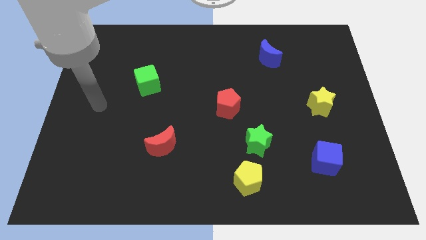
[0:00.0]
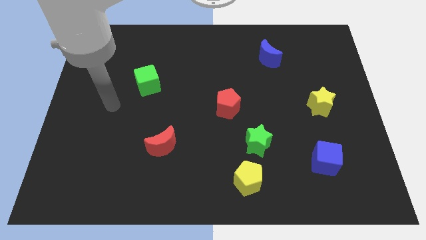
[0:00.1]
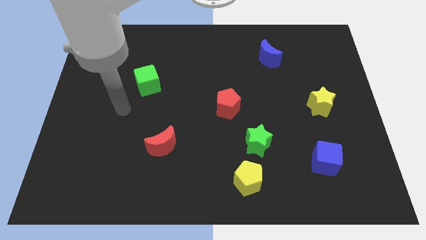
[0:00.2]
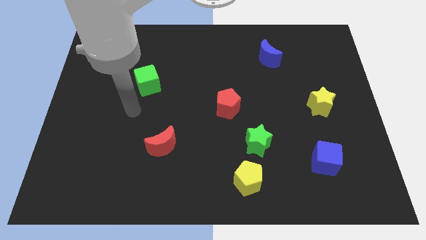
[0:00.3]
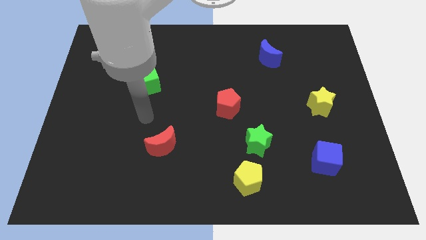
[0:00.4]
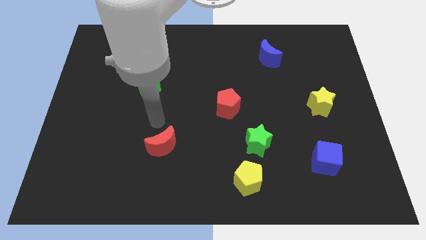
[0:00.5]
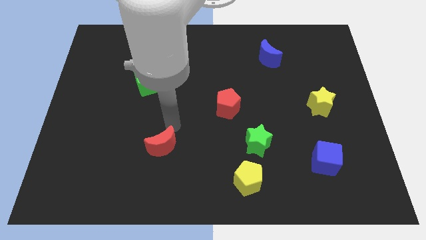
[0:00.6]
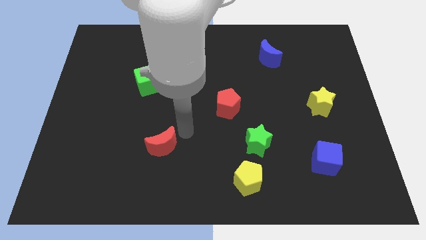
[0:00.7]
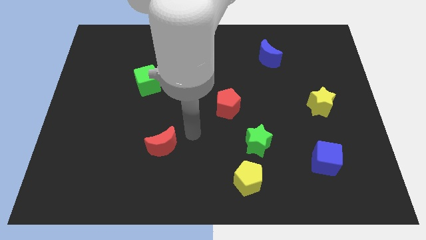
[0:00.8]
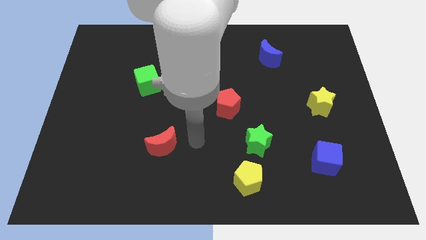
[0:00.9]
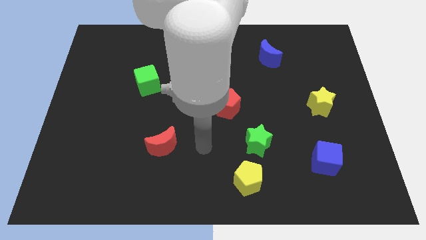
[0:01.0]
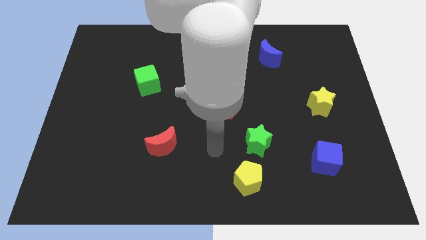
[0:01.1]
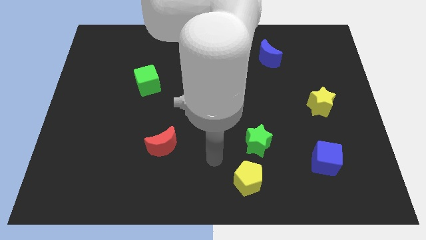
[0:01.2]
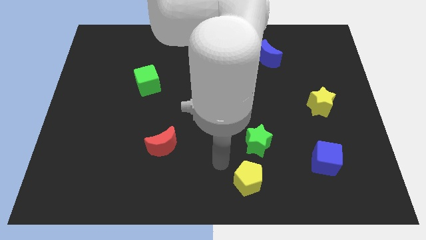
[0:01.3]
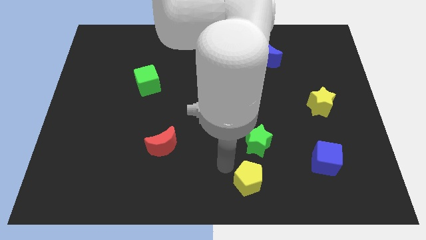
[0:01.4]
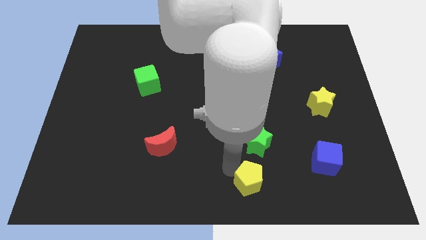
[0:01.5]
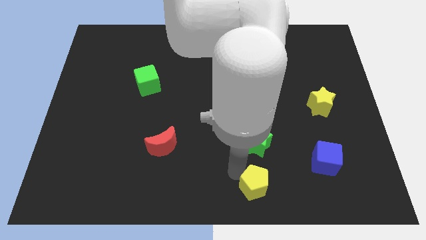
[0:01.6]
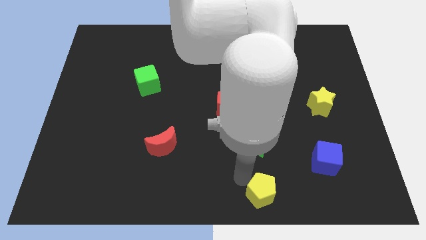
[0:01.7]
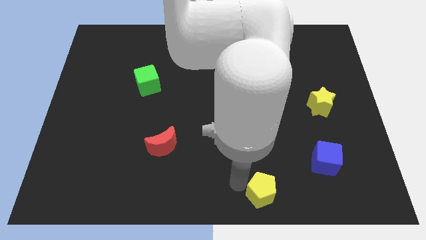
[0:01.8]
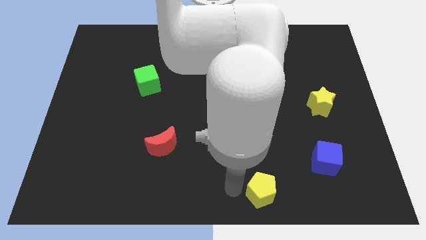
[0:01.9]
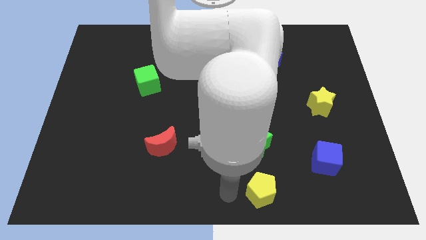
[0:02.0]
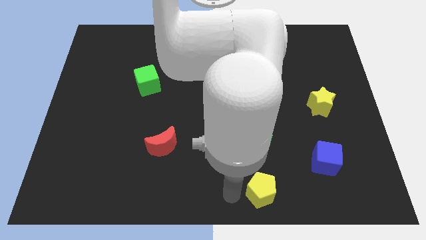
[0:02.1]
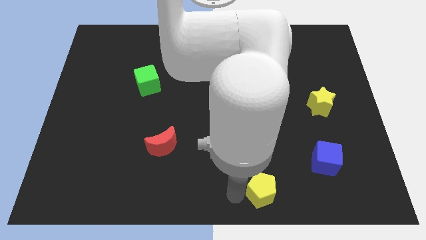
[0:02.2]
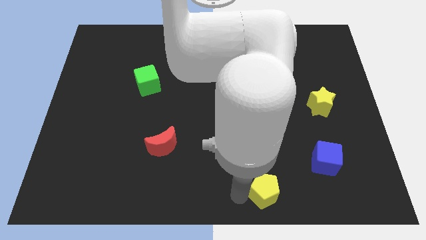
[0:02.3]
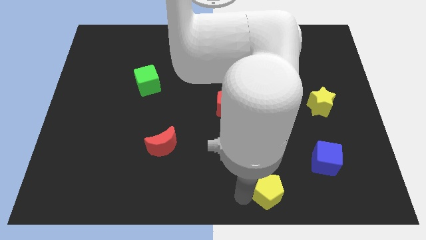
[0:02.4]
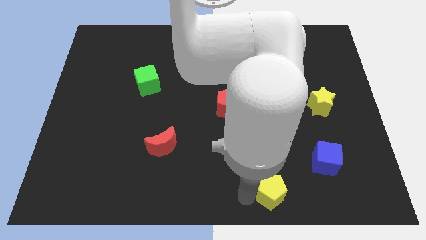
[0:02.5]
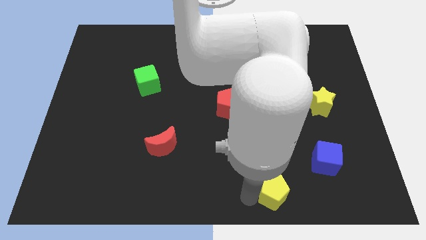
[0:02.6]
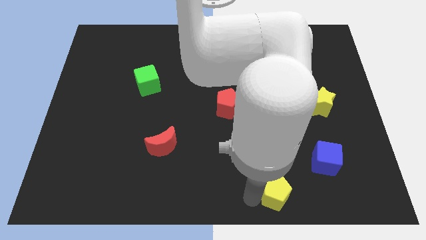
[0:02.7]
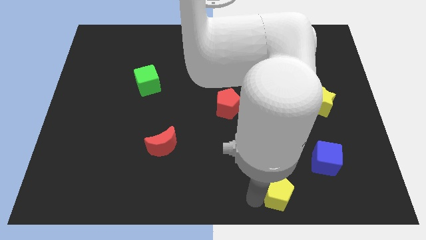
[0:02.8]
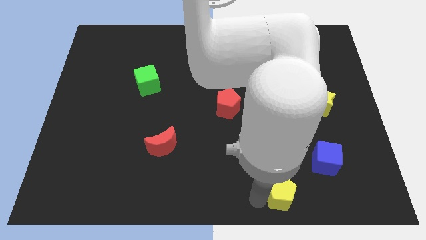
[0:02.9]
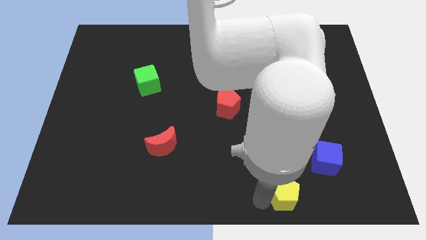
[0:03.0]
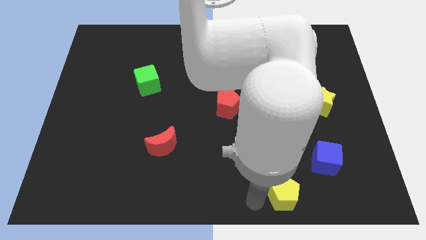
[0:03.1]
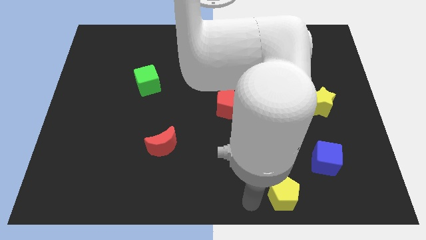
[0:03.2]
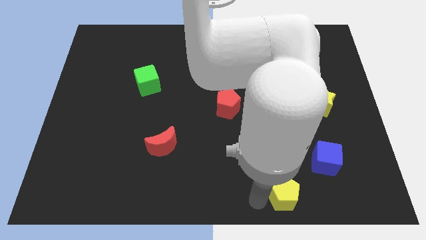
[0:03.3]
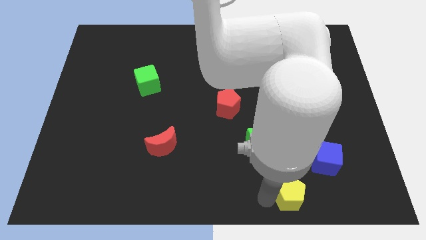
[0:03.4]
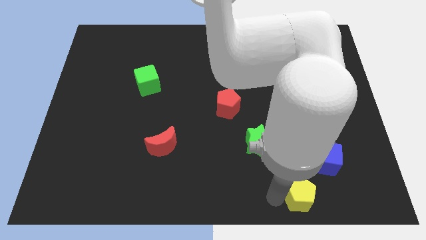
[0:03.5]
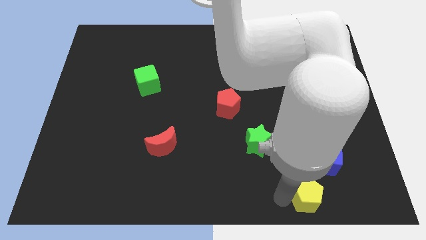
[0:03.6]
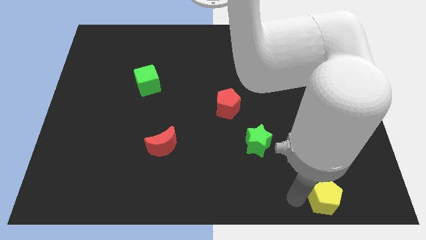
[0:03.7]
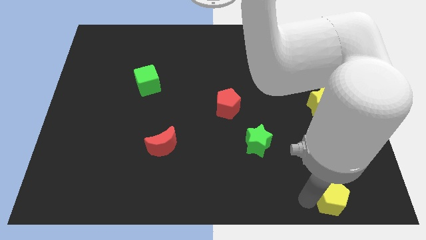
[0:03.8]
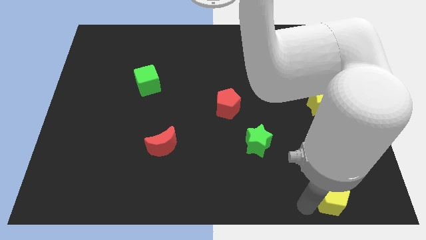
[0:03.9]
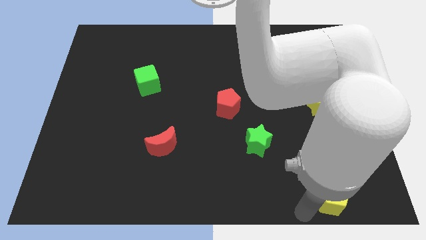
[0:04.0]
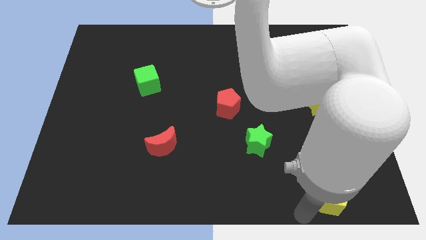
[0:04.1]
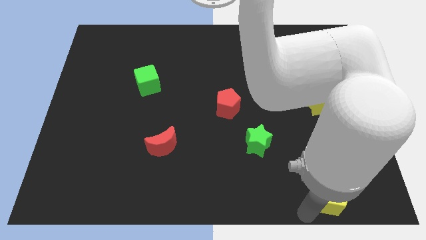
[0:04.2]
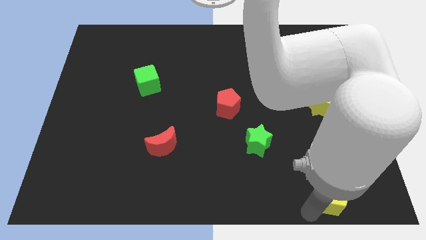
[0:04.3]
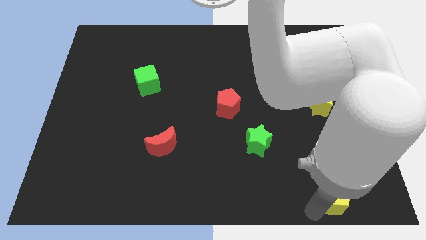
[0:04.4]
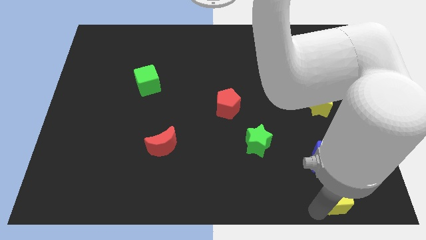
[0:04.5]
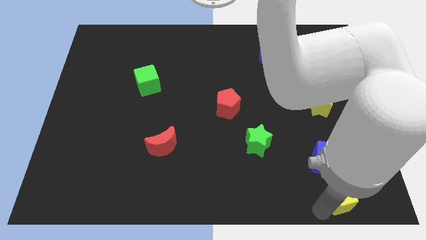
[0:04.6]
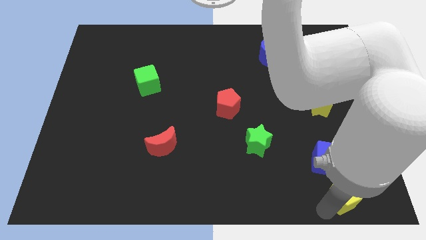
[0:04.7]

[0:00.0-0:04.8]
push the yellow pentagon to the bottom right side of the blue cube

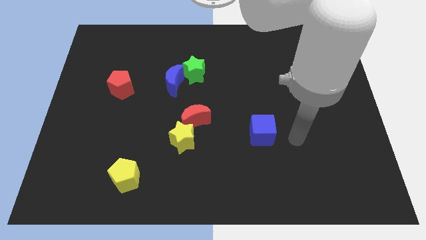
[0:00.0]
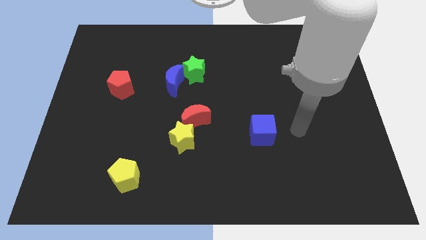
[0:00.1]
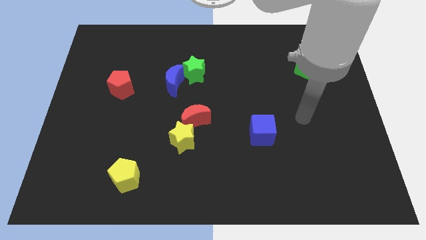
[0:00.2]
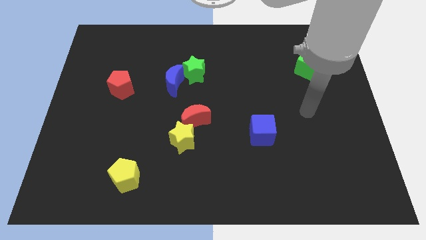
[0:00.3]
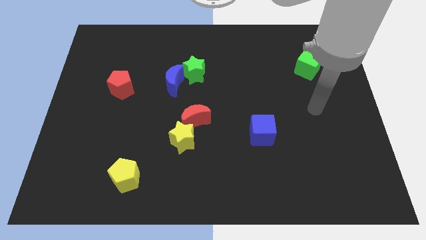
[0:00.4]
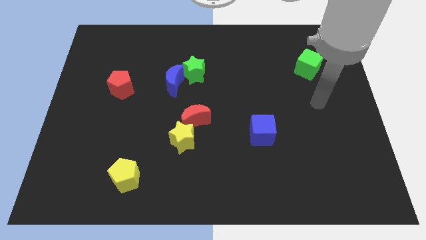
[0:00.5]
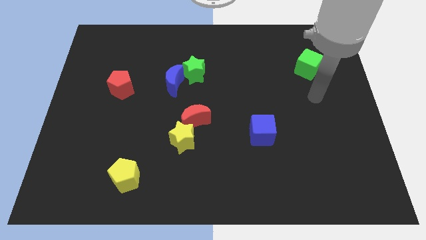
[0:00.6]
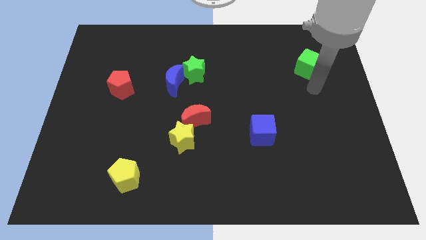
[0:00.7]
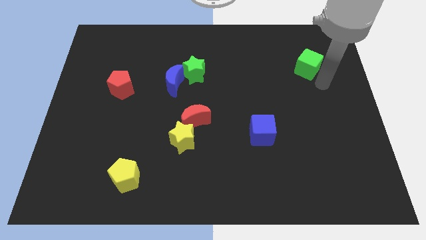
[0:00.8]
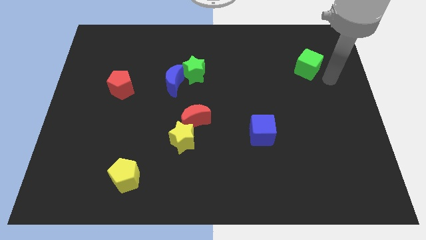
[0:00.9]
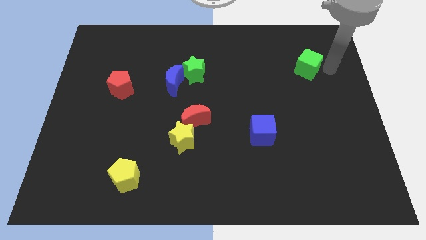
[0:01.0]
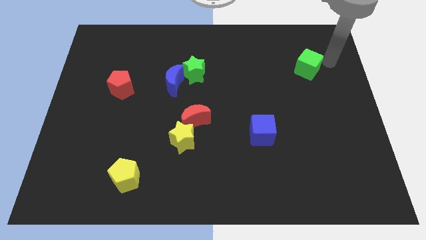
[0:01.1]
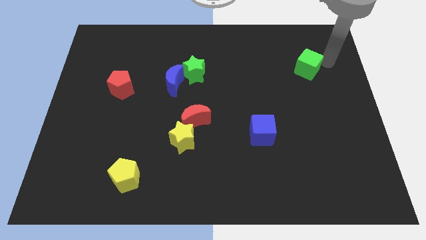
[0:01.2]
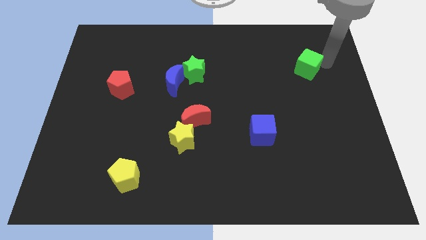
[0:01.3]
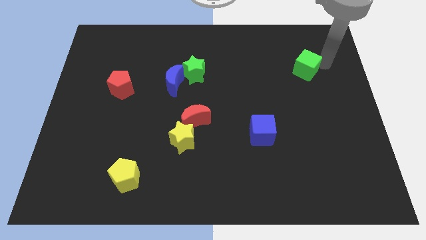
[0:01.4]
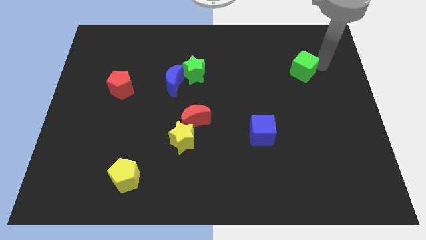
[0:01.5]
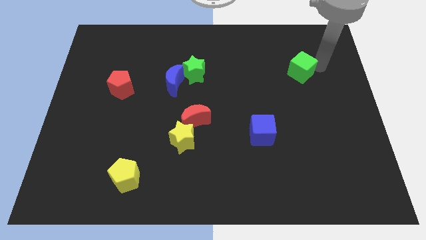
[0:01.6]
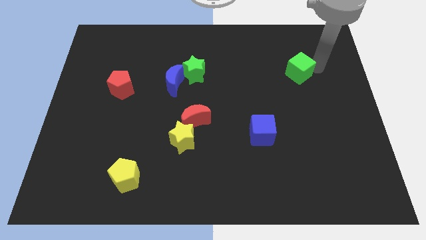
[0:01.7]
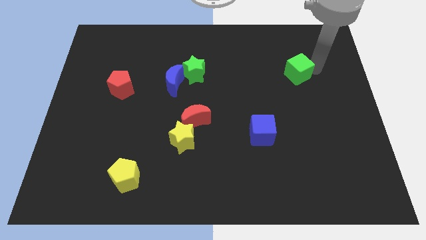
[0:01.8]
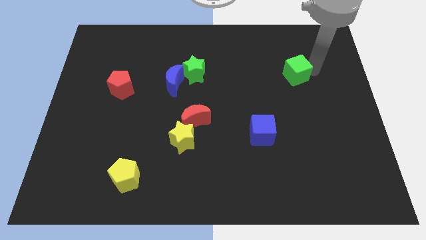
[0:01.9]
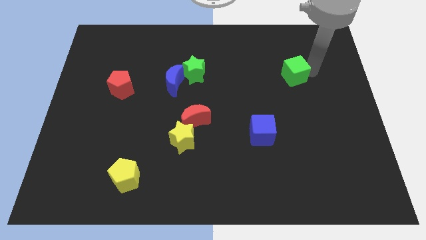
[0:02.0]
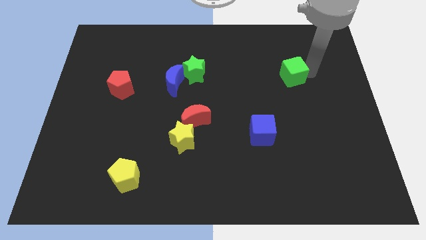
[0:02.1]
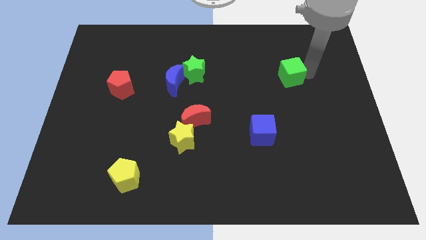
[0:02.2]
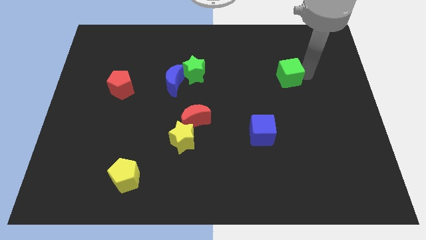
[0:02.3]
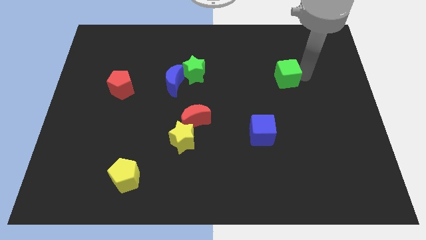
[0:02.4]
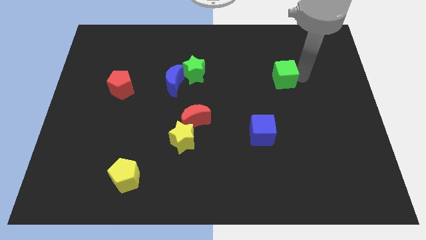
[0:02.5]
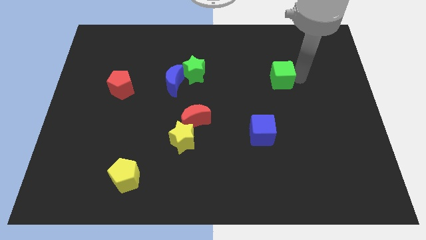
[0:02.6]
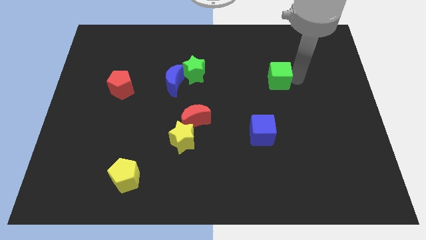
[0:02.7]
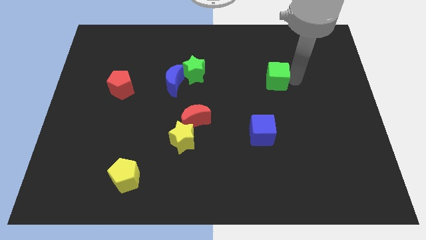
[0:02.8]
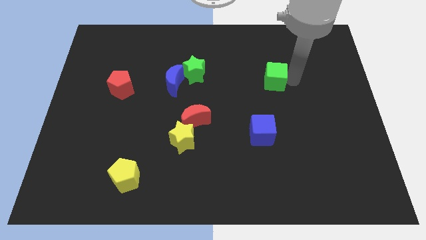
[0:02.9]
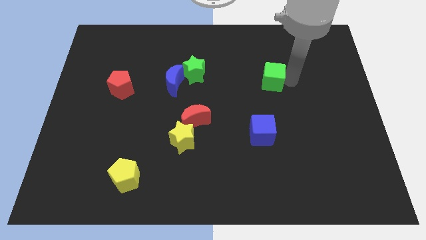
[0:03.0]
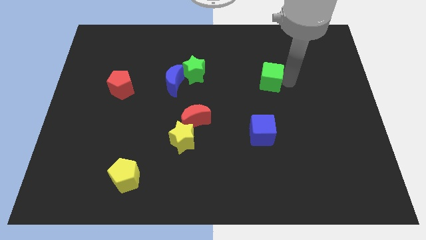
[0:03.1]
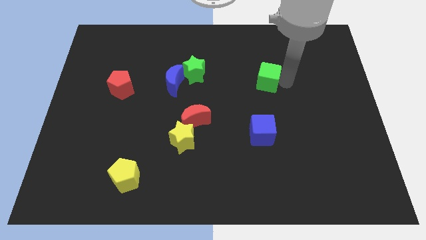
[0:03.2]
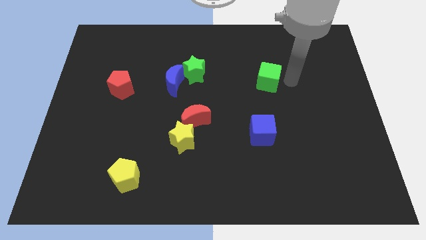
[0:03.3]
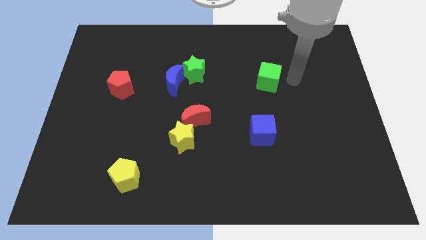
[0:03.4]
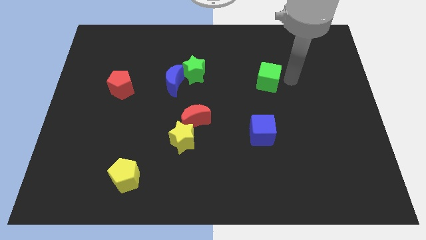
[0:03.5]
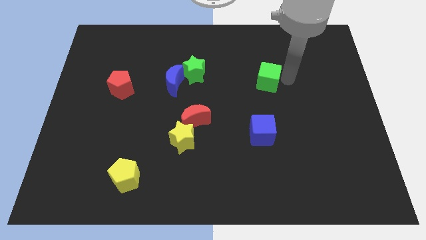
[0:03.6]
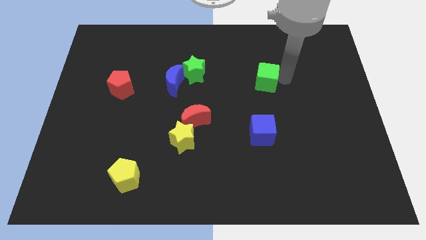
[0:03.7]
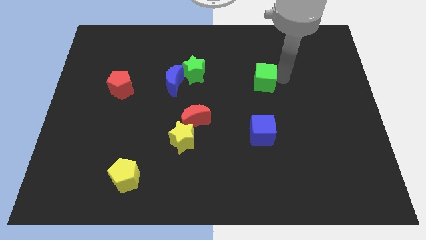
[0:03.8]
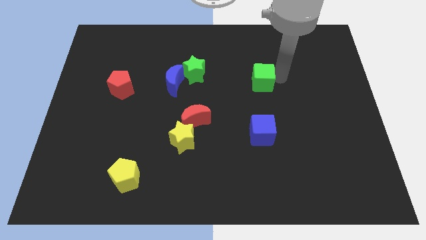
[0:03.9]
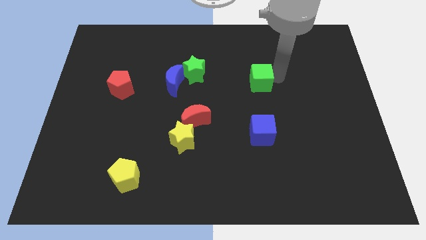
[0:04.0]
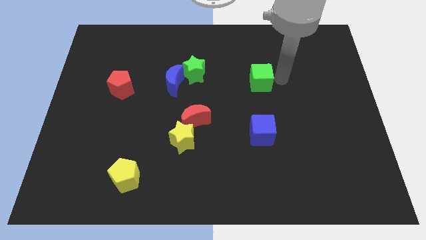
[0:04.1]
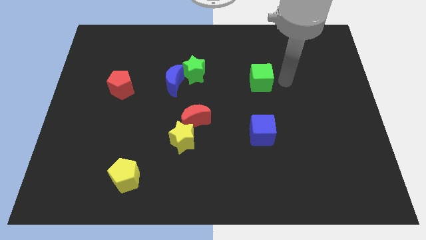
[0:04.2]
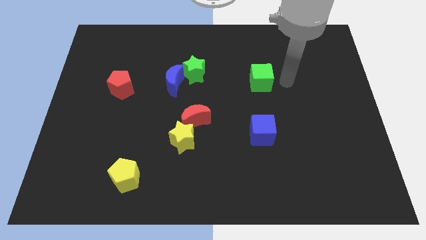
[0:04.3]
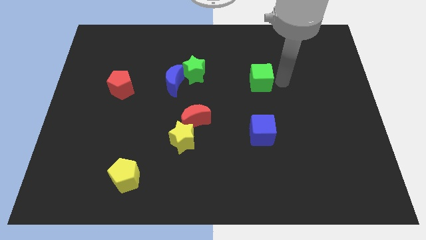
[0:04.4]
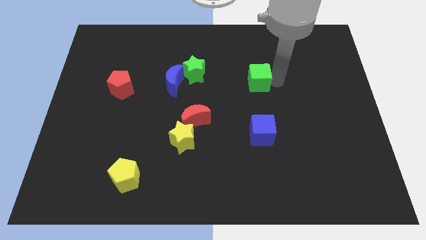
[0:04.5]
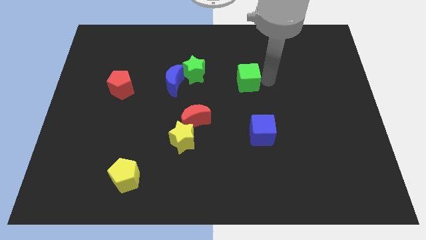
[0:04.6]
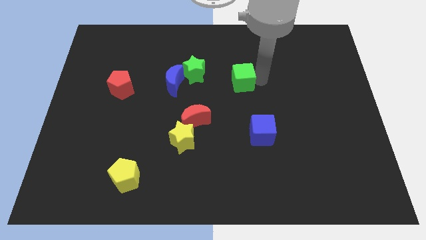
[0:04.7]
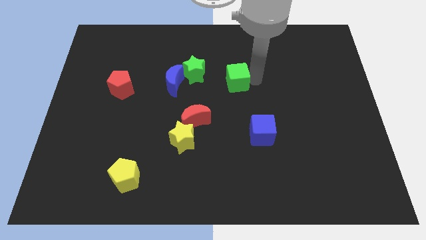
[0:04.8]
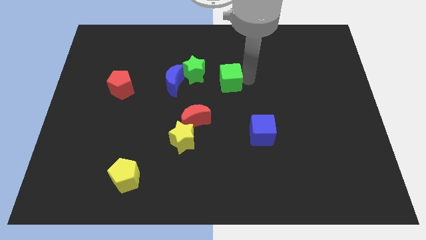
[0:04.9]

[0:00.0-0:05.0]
put the green cube to the bottom right of the green star
